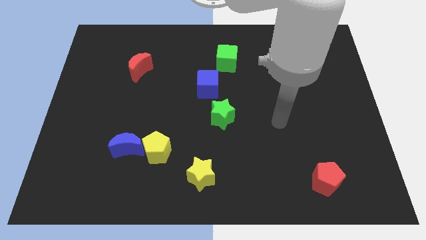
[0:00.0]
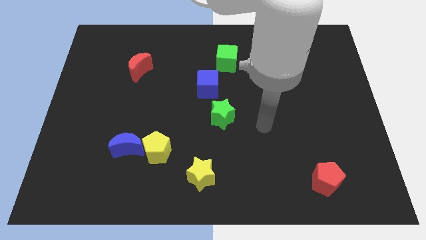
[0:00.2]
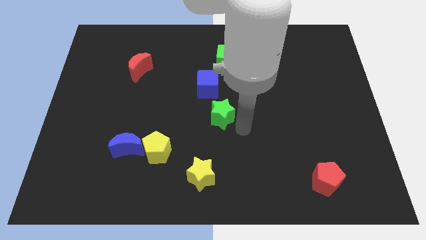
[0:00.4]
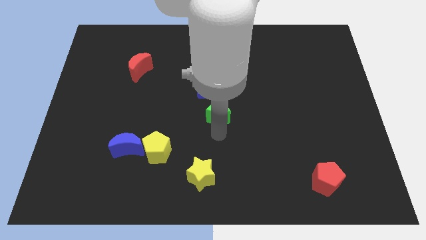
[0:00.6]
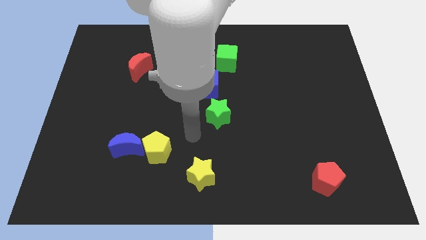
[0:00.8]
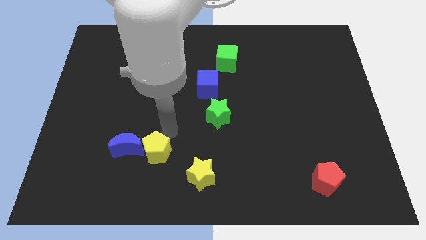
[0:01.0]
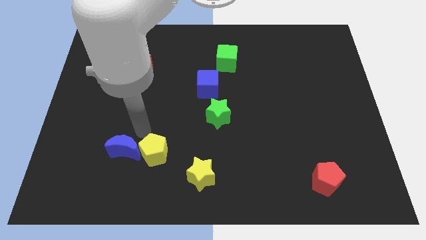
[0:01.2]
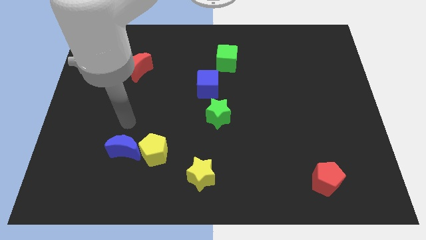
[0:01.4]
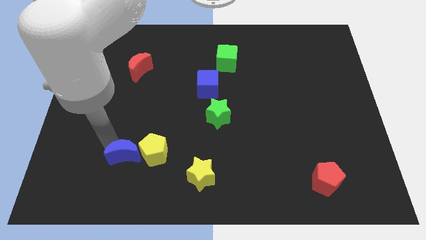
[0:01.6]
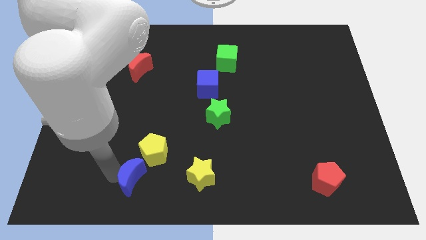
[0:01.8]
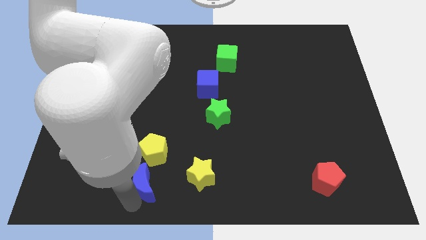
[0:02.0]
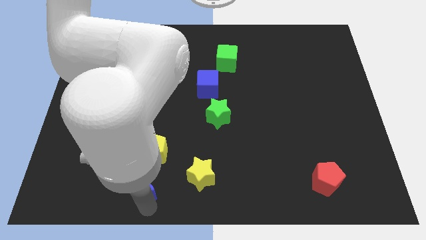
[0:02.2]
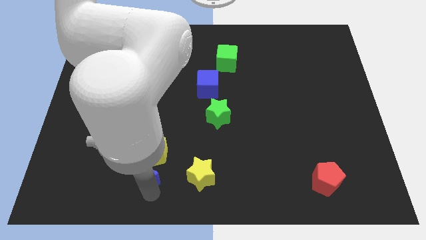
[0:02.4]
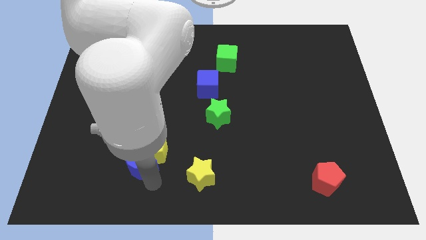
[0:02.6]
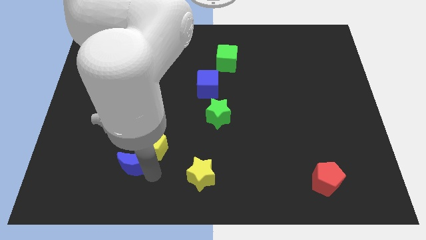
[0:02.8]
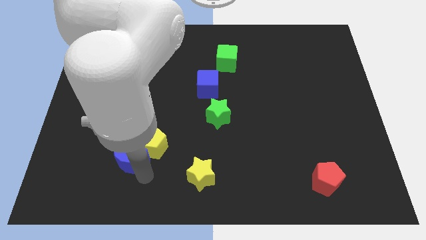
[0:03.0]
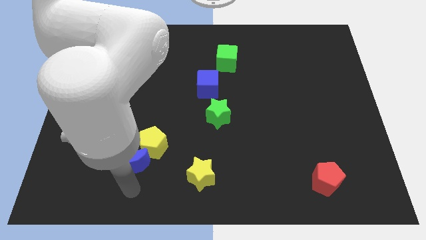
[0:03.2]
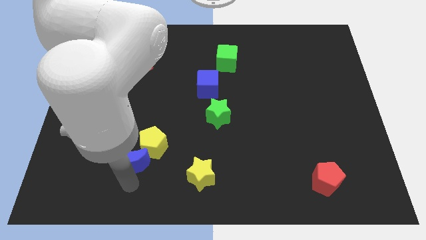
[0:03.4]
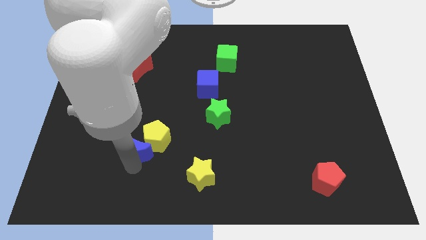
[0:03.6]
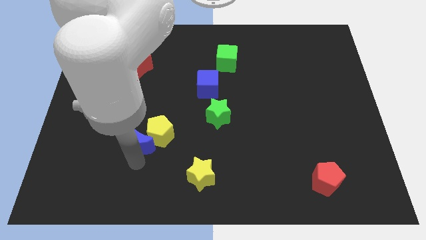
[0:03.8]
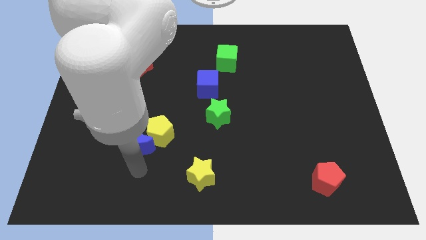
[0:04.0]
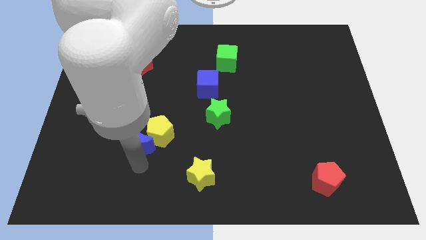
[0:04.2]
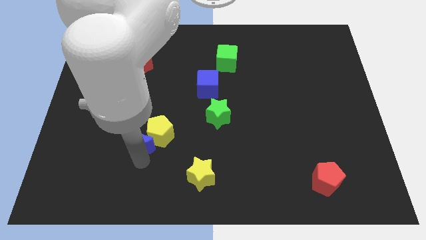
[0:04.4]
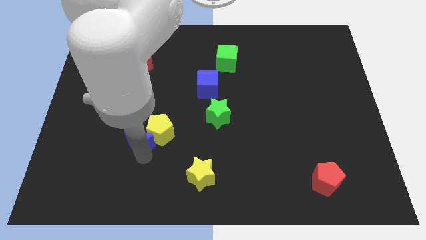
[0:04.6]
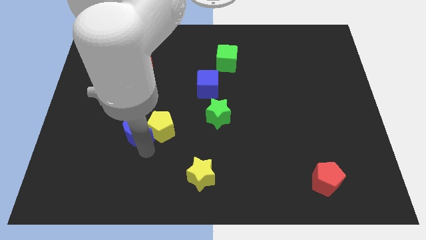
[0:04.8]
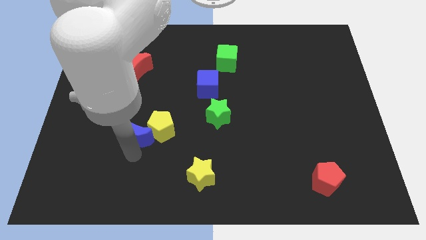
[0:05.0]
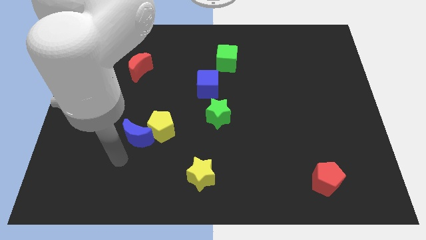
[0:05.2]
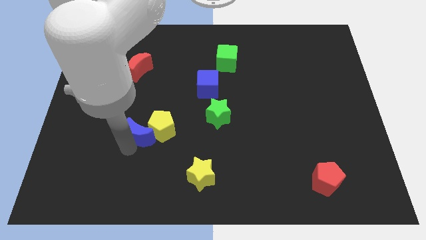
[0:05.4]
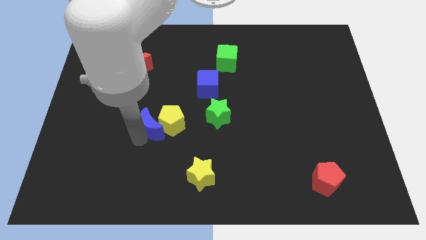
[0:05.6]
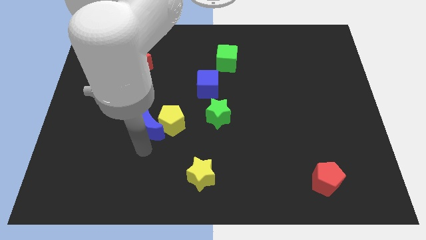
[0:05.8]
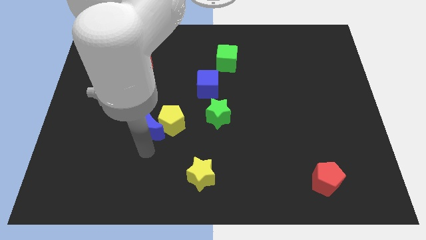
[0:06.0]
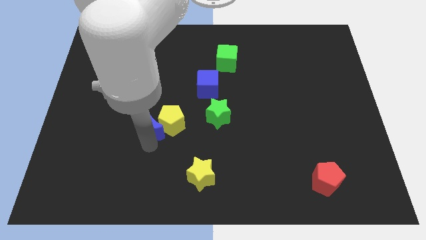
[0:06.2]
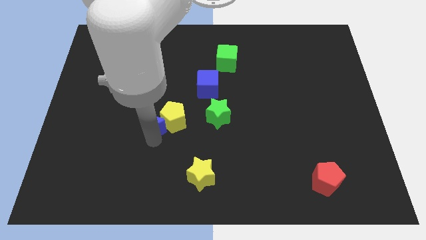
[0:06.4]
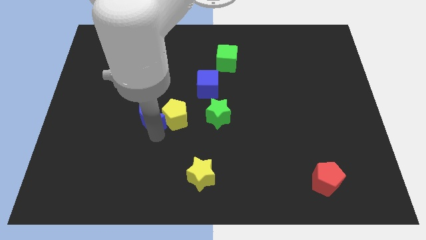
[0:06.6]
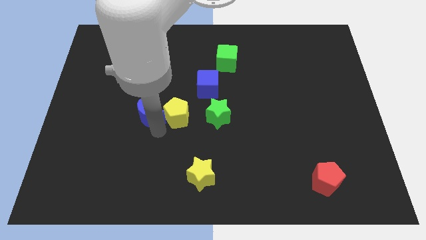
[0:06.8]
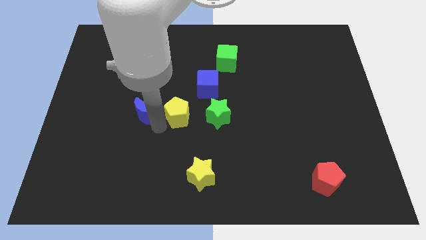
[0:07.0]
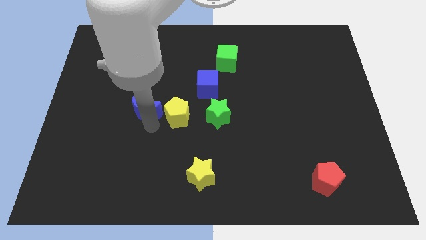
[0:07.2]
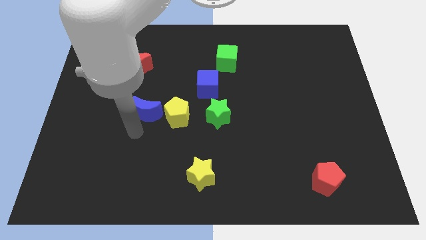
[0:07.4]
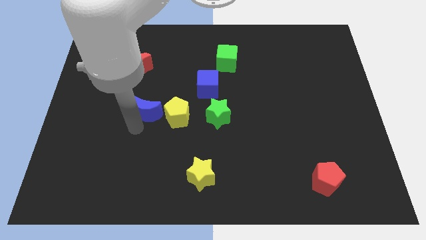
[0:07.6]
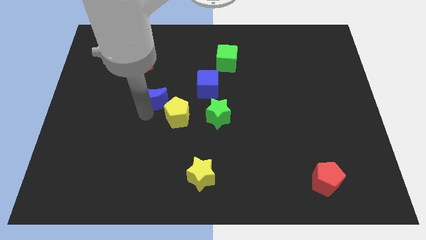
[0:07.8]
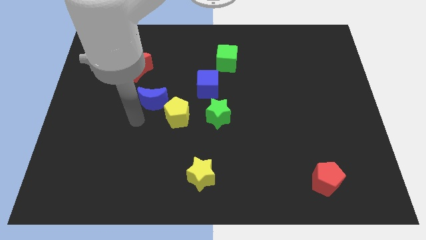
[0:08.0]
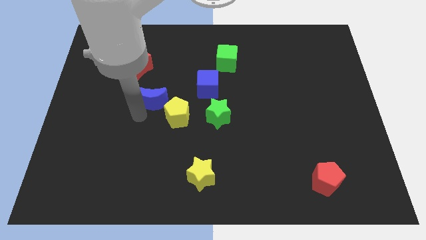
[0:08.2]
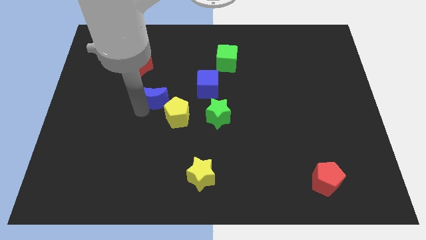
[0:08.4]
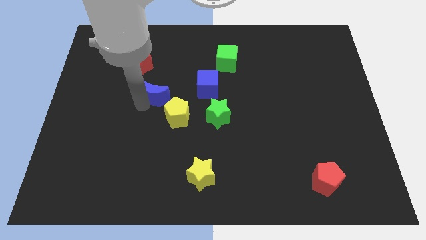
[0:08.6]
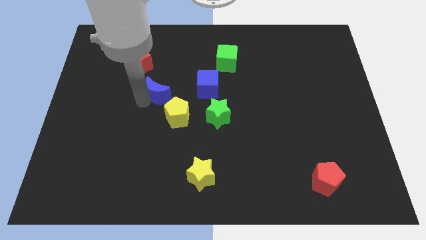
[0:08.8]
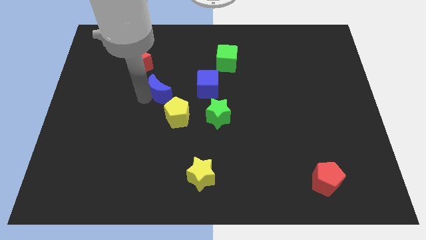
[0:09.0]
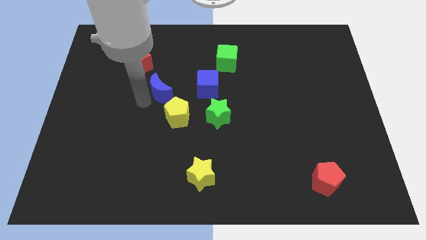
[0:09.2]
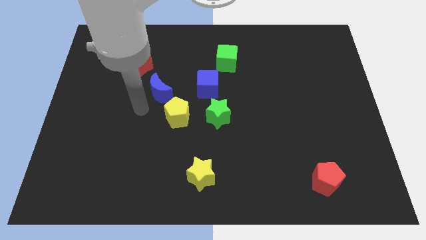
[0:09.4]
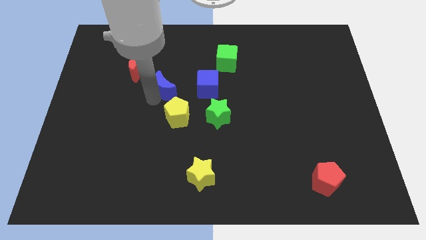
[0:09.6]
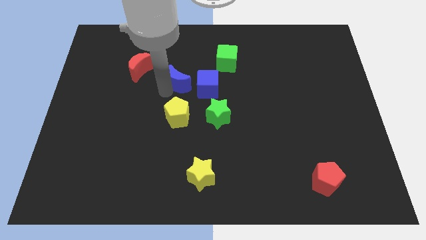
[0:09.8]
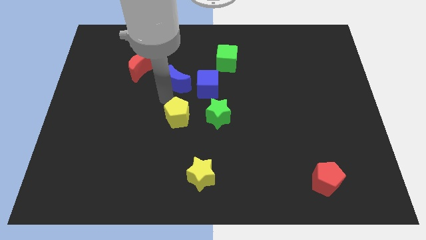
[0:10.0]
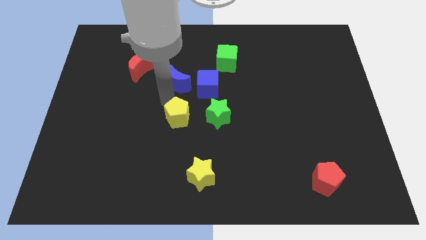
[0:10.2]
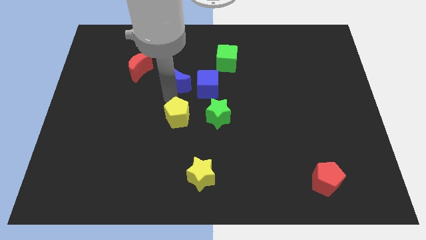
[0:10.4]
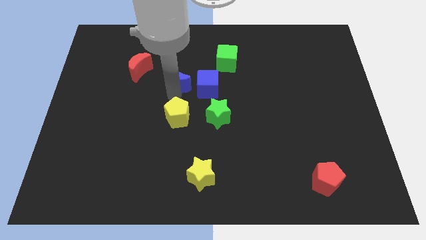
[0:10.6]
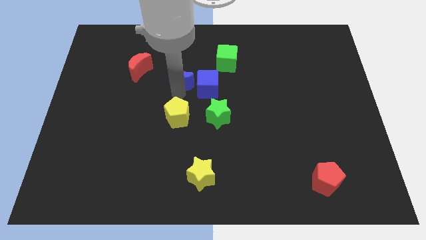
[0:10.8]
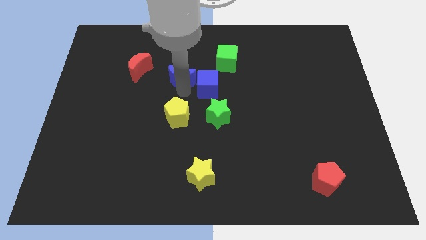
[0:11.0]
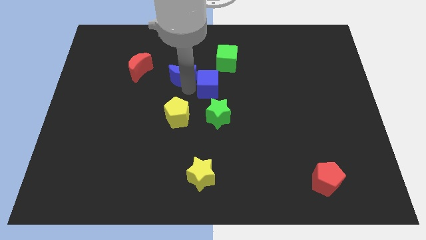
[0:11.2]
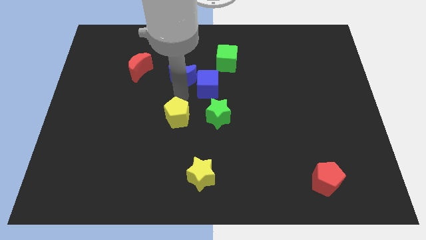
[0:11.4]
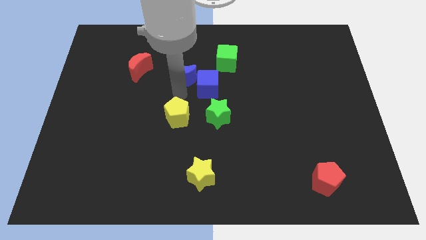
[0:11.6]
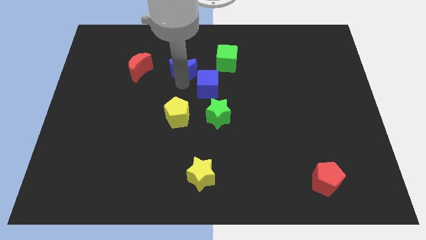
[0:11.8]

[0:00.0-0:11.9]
slide the blue moon just left of the green cube
